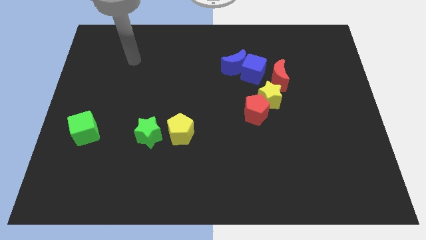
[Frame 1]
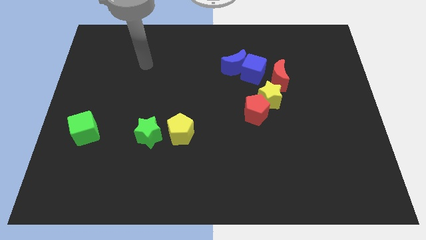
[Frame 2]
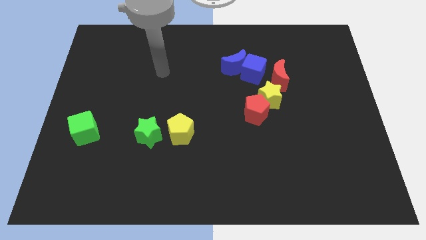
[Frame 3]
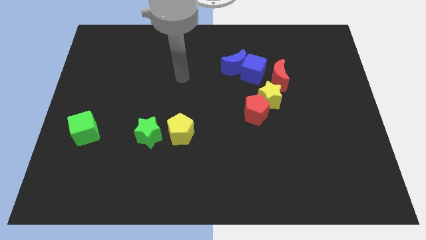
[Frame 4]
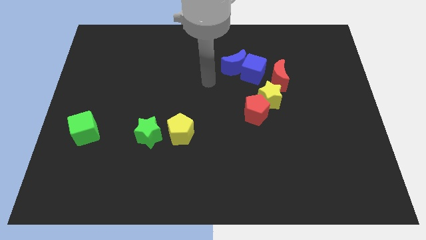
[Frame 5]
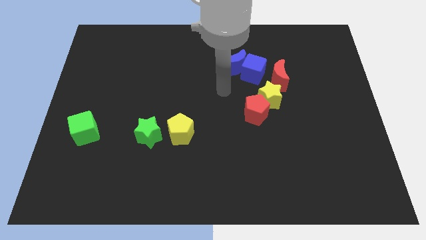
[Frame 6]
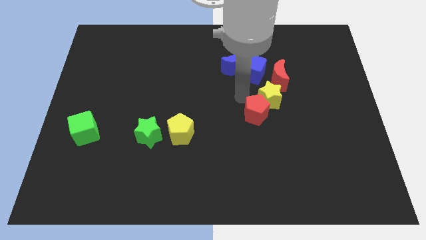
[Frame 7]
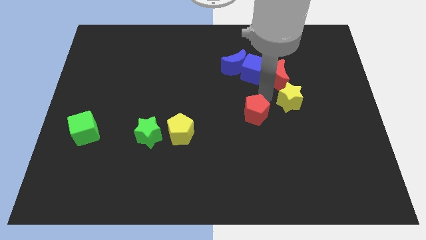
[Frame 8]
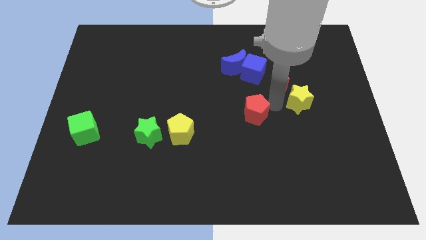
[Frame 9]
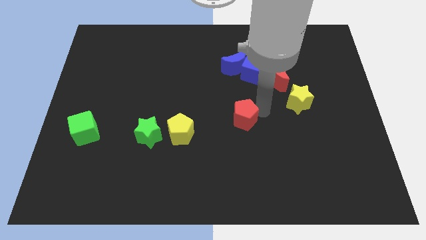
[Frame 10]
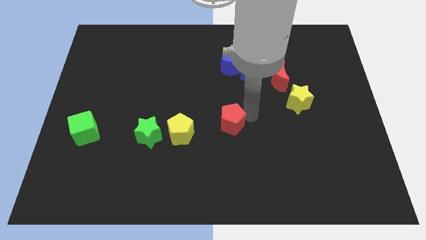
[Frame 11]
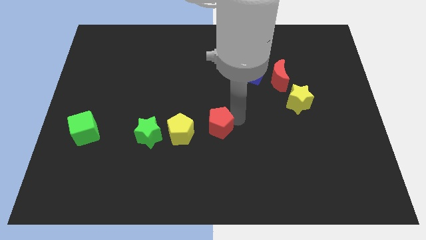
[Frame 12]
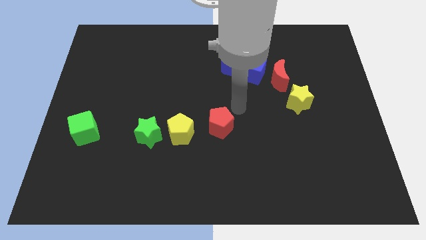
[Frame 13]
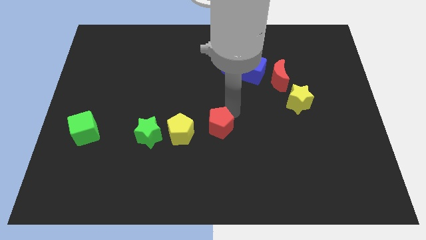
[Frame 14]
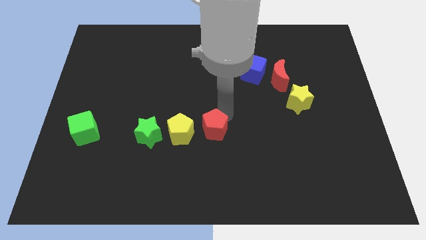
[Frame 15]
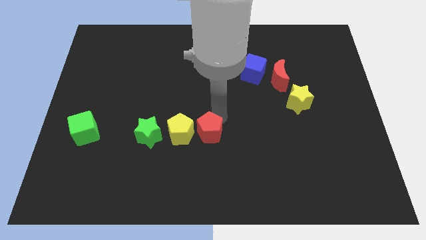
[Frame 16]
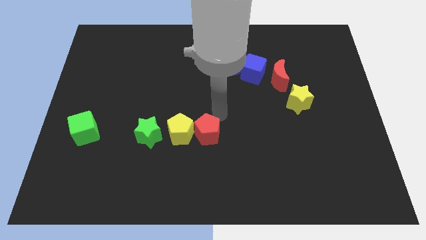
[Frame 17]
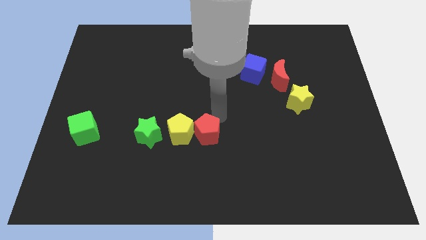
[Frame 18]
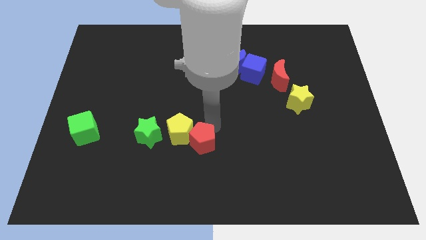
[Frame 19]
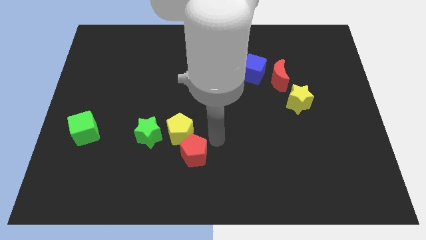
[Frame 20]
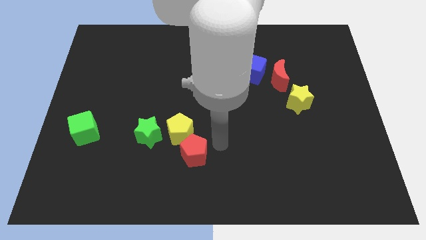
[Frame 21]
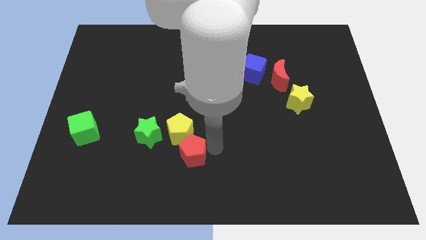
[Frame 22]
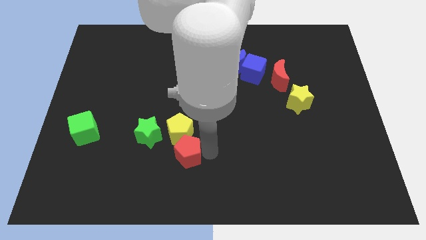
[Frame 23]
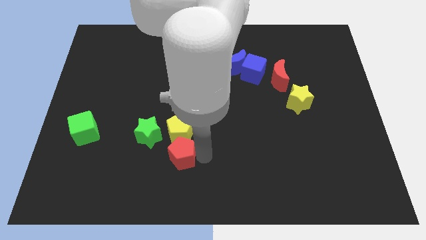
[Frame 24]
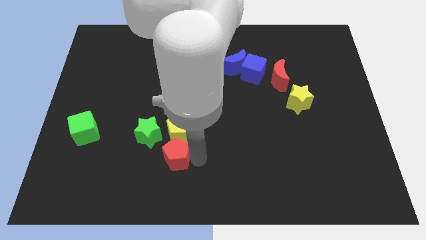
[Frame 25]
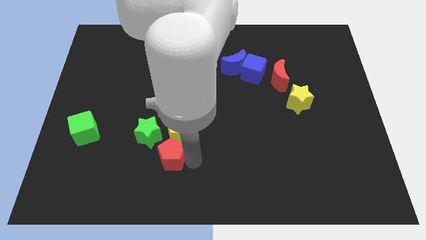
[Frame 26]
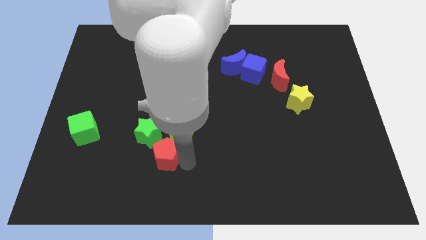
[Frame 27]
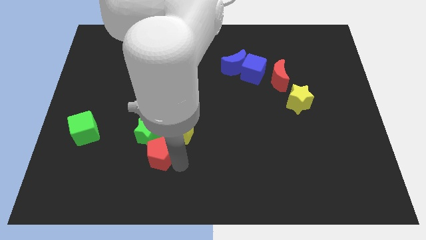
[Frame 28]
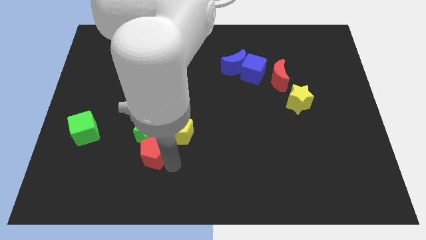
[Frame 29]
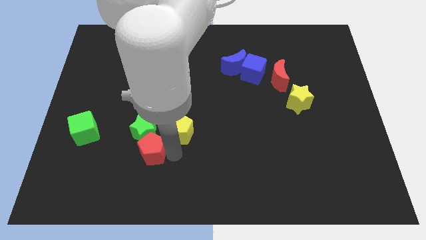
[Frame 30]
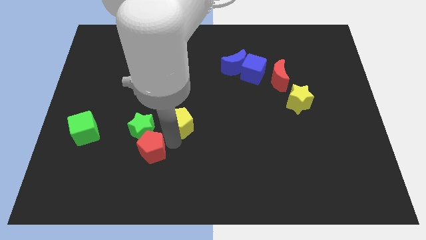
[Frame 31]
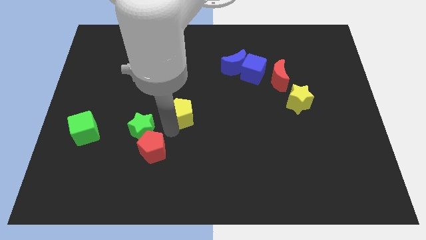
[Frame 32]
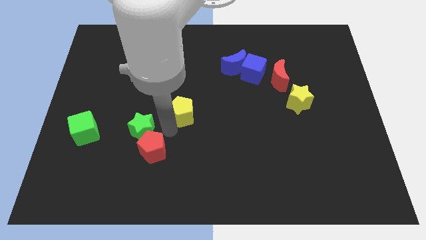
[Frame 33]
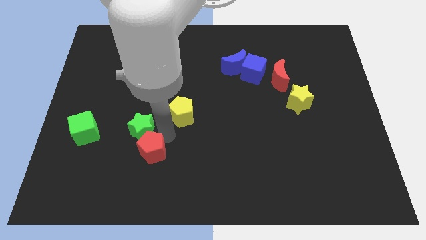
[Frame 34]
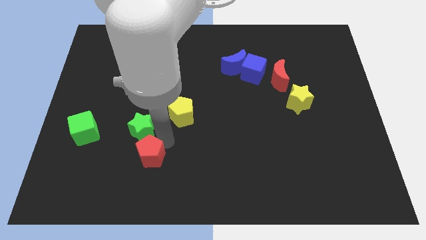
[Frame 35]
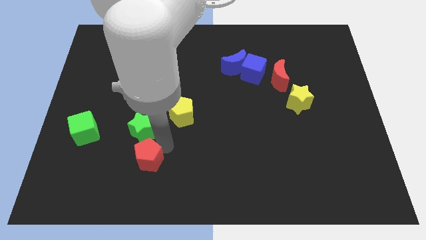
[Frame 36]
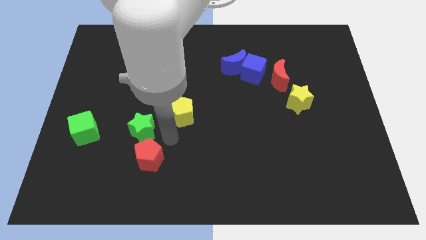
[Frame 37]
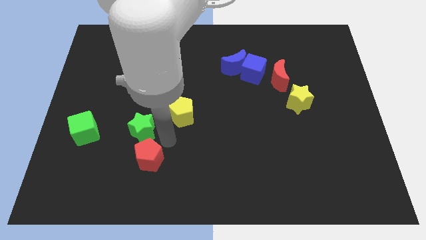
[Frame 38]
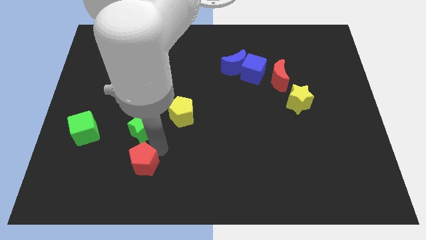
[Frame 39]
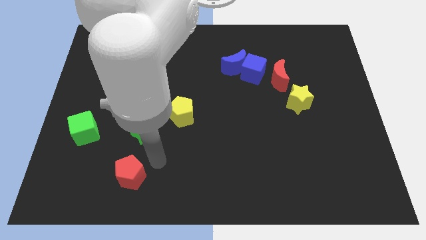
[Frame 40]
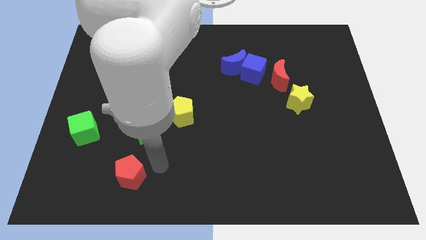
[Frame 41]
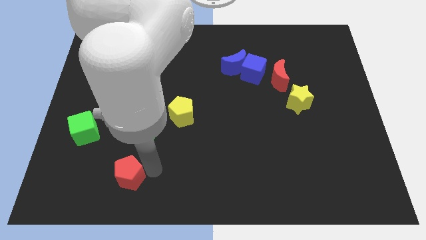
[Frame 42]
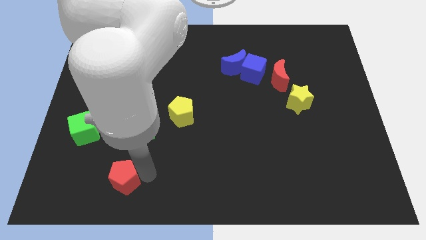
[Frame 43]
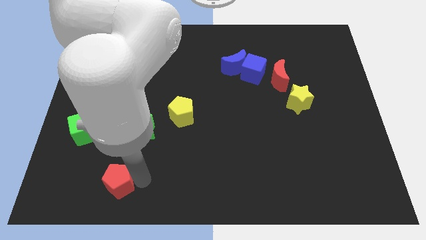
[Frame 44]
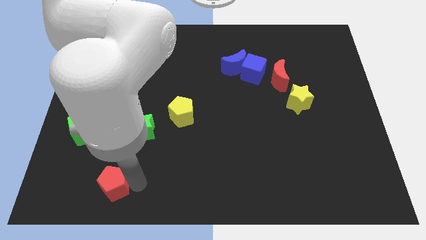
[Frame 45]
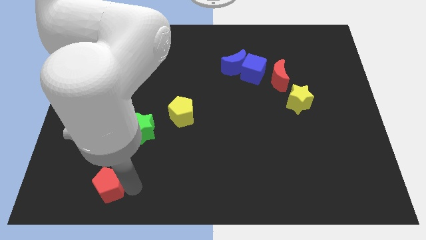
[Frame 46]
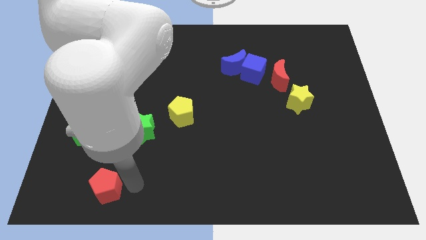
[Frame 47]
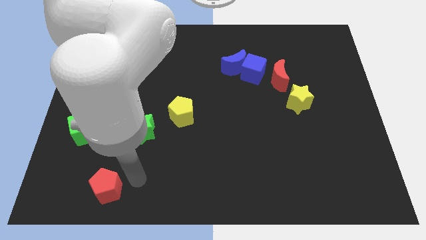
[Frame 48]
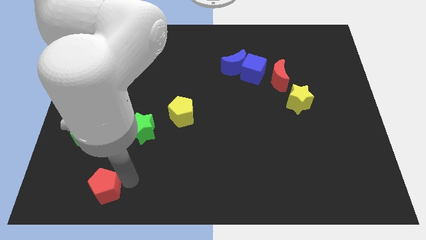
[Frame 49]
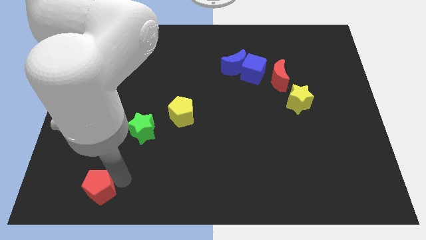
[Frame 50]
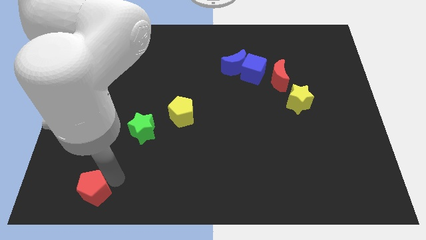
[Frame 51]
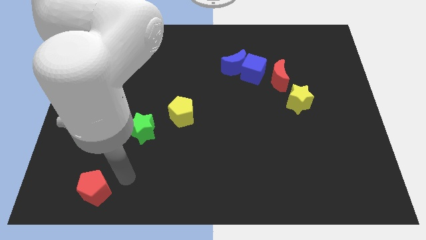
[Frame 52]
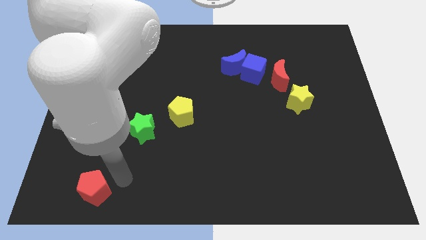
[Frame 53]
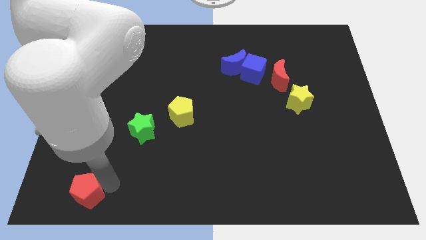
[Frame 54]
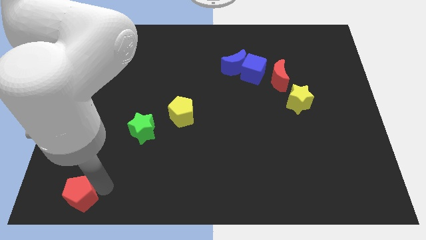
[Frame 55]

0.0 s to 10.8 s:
push the red pentagon to the bottom left

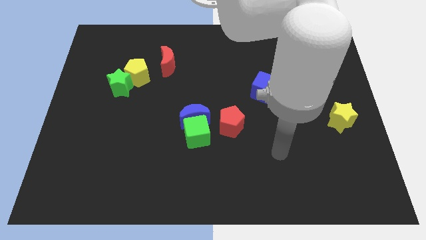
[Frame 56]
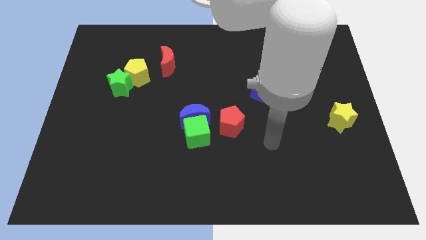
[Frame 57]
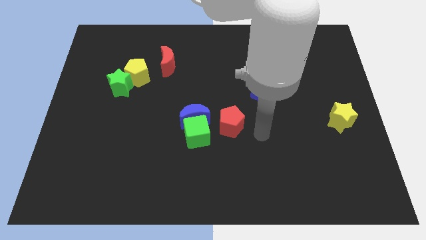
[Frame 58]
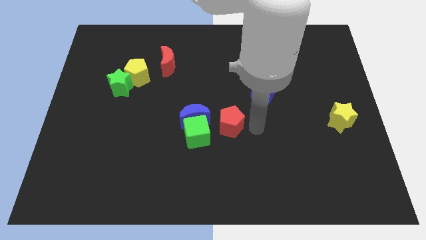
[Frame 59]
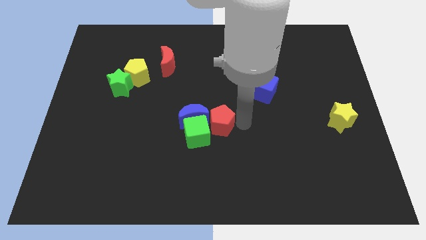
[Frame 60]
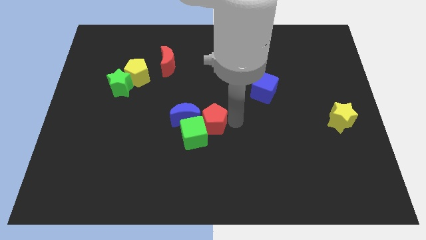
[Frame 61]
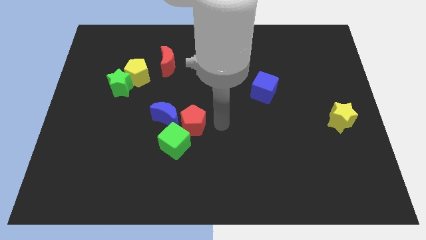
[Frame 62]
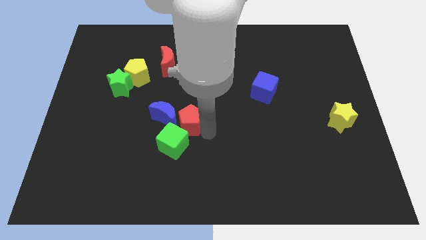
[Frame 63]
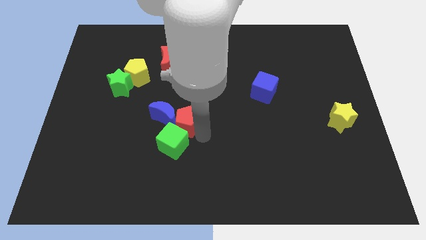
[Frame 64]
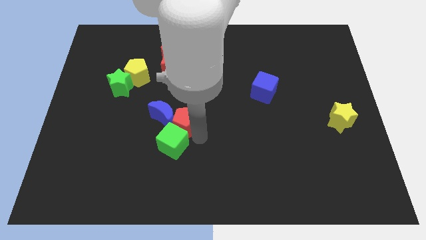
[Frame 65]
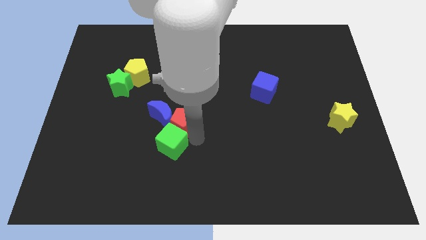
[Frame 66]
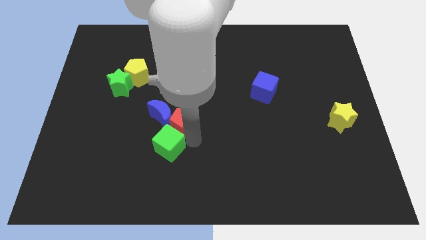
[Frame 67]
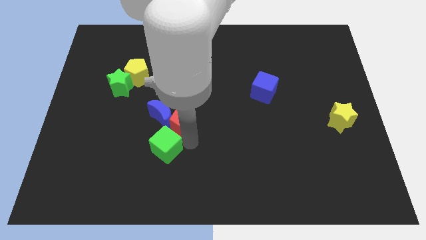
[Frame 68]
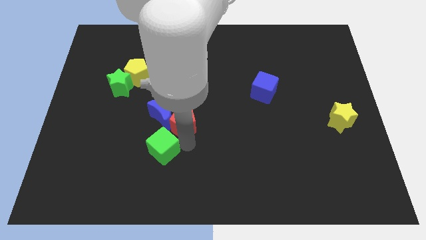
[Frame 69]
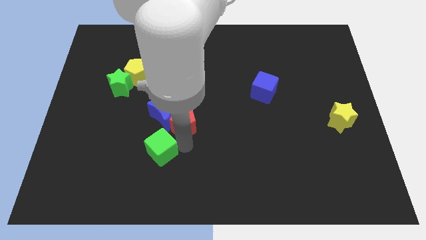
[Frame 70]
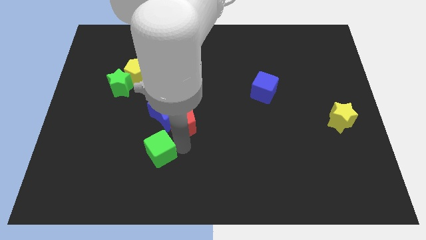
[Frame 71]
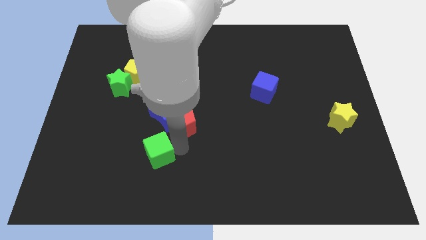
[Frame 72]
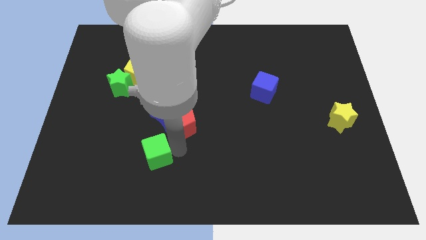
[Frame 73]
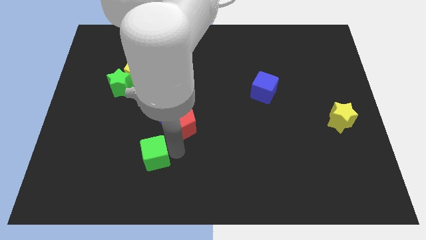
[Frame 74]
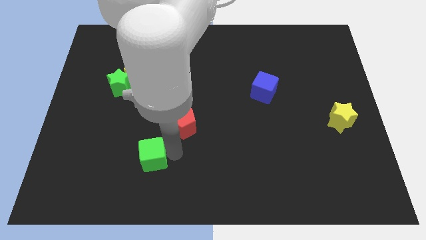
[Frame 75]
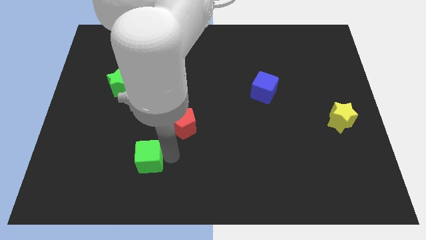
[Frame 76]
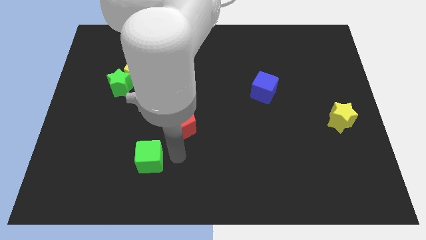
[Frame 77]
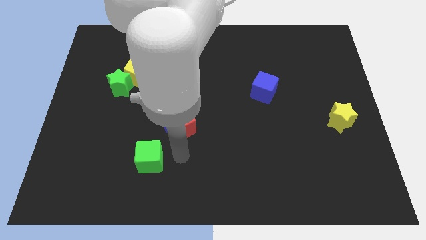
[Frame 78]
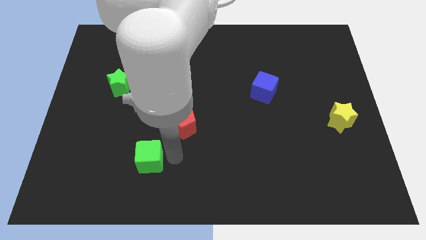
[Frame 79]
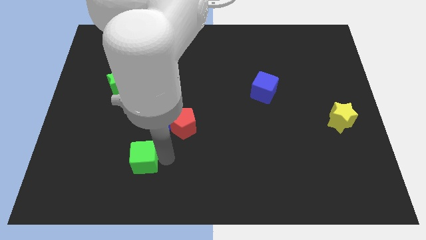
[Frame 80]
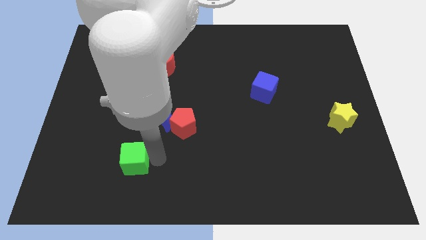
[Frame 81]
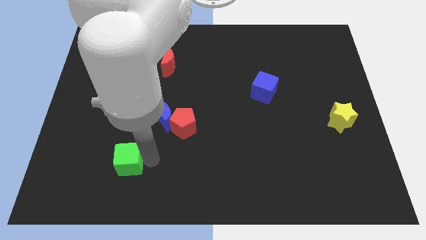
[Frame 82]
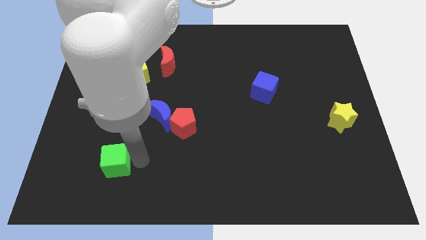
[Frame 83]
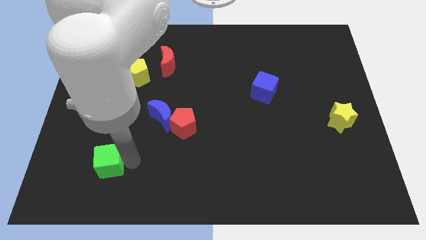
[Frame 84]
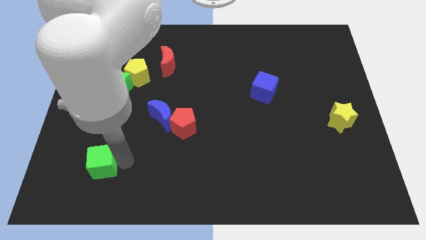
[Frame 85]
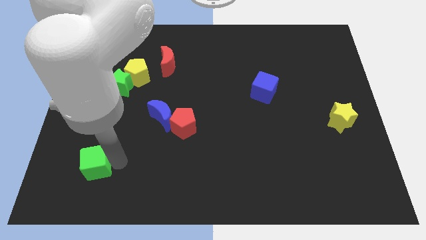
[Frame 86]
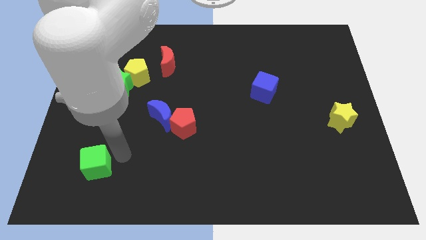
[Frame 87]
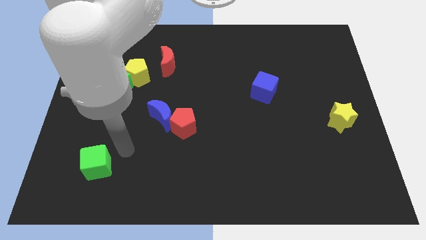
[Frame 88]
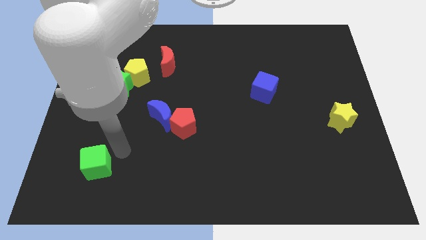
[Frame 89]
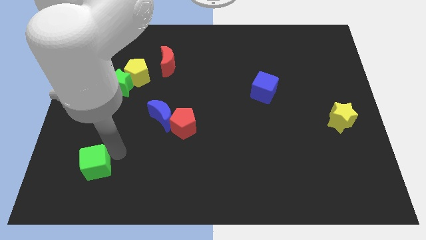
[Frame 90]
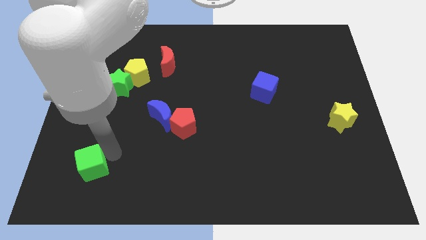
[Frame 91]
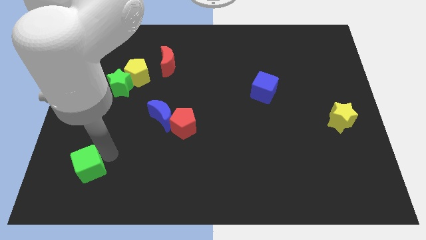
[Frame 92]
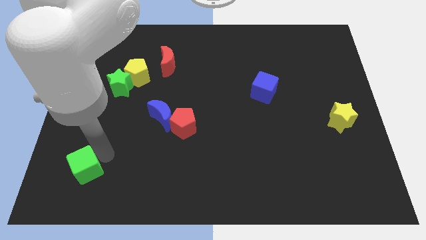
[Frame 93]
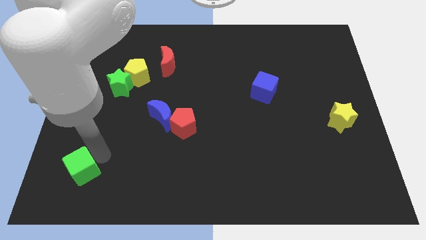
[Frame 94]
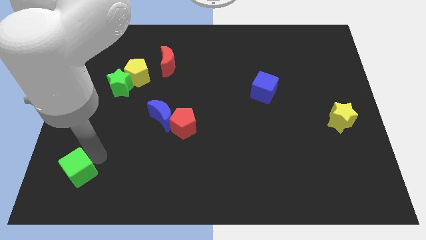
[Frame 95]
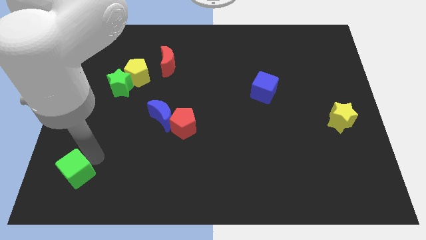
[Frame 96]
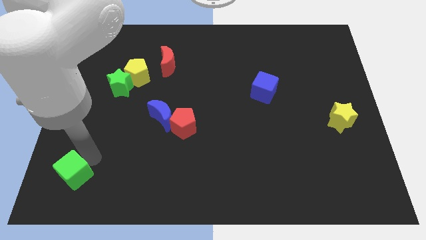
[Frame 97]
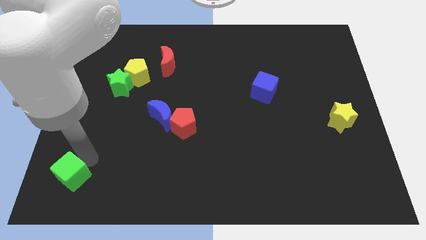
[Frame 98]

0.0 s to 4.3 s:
slide the green cube to the bottom left corner
